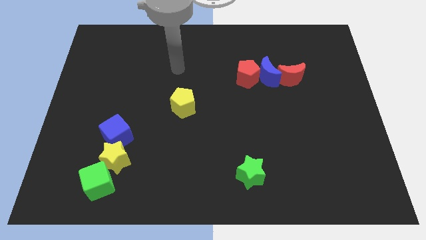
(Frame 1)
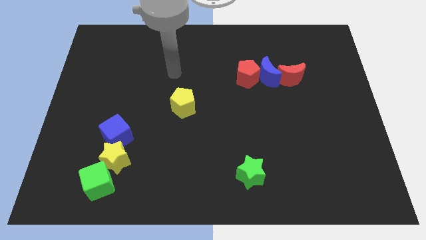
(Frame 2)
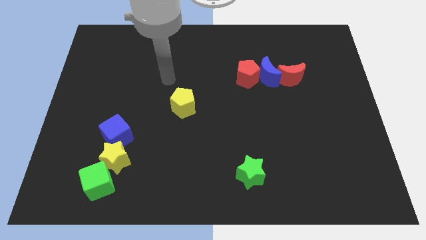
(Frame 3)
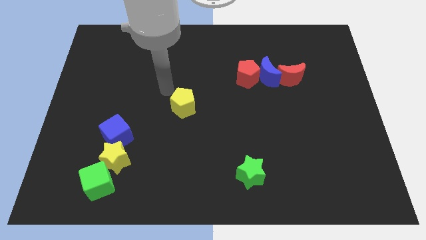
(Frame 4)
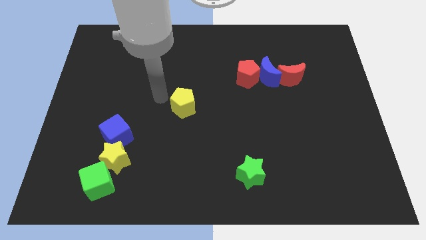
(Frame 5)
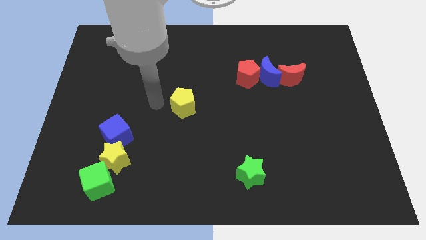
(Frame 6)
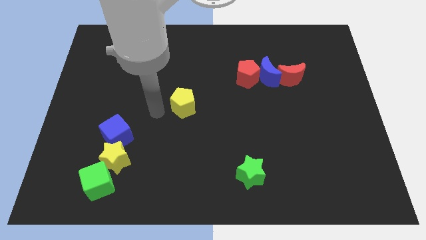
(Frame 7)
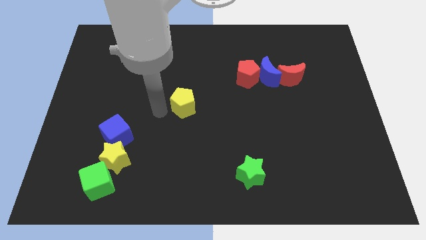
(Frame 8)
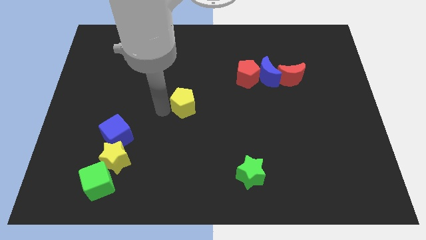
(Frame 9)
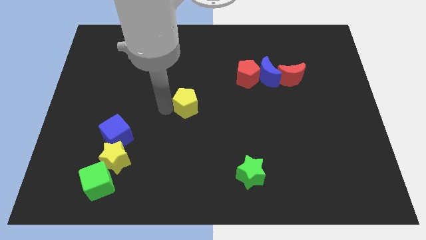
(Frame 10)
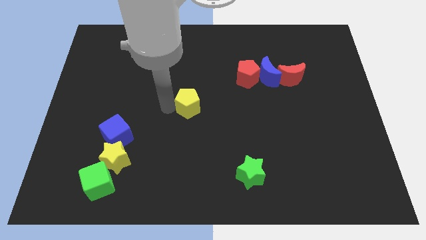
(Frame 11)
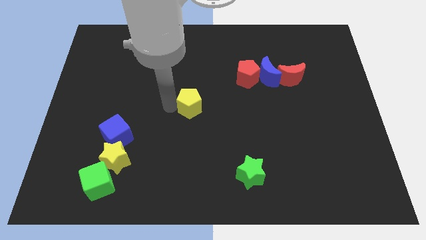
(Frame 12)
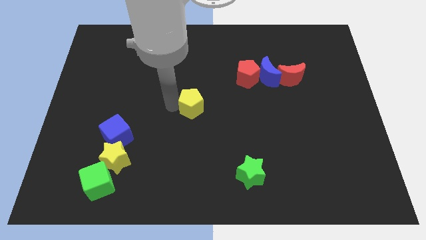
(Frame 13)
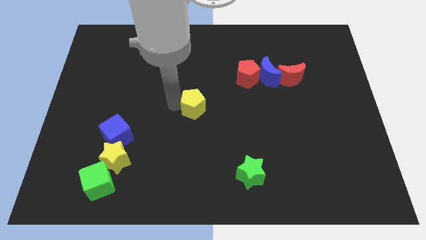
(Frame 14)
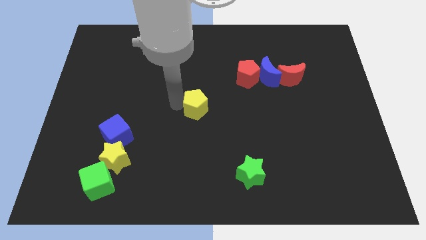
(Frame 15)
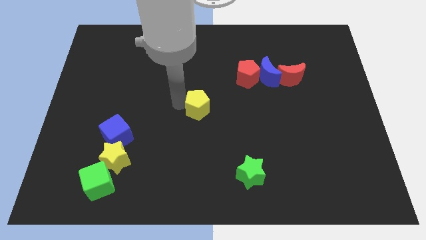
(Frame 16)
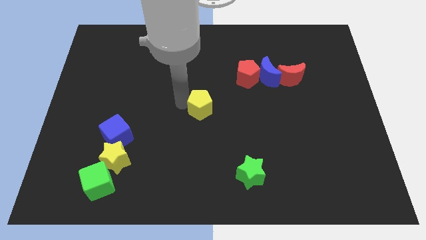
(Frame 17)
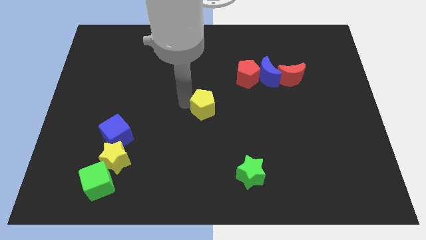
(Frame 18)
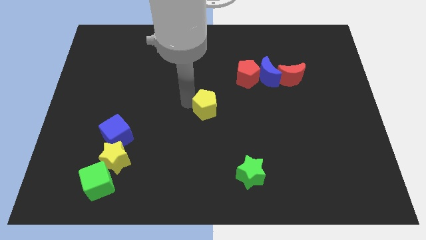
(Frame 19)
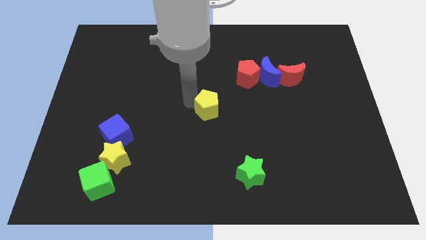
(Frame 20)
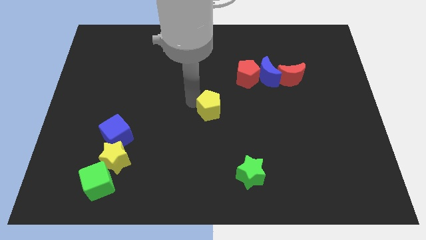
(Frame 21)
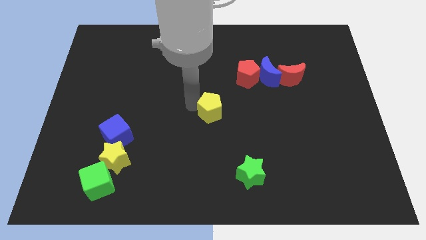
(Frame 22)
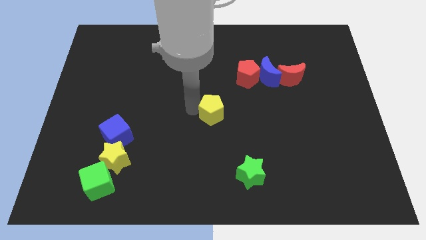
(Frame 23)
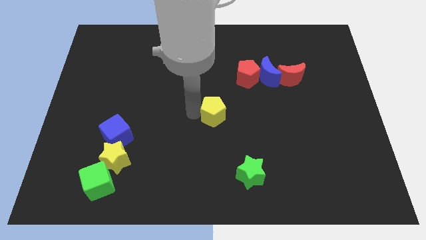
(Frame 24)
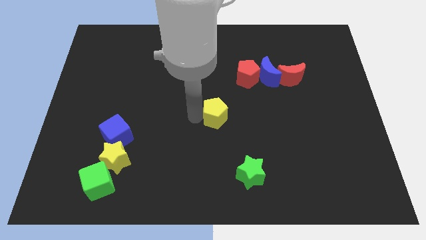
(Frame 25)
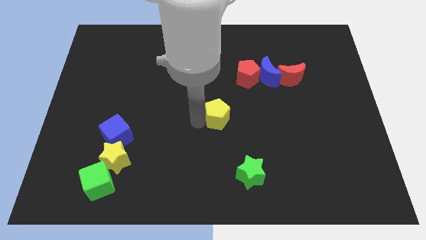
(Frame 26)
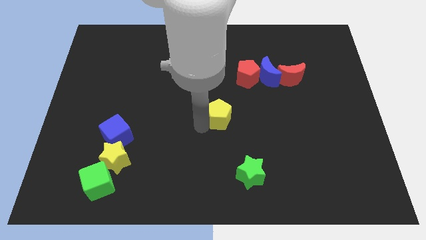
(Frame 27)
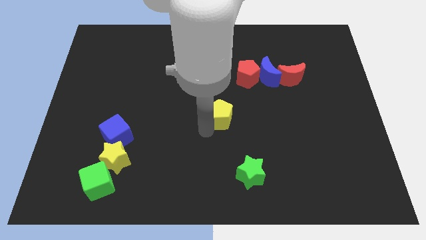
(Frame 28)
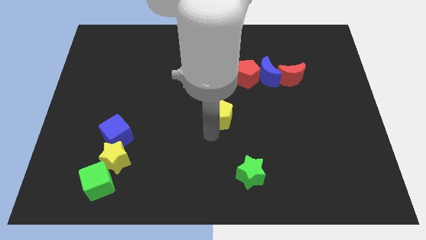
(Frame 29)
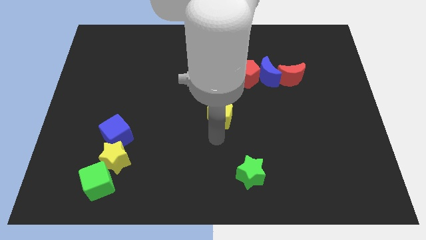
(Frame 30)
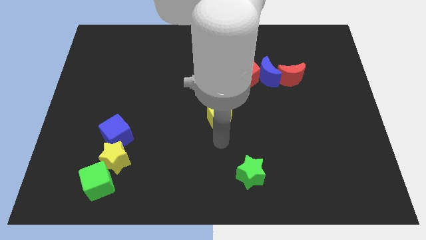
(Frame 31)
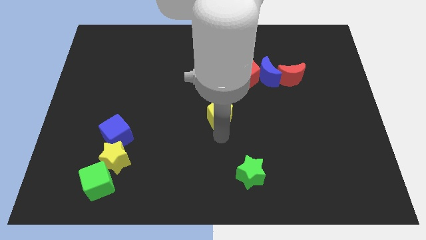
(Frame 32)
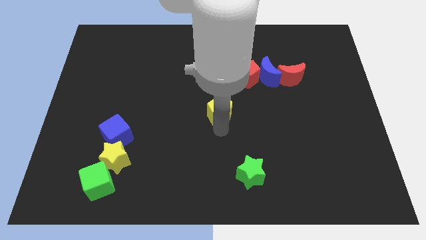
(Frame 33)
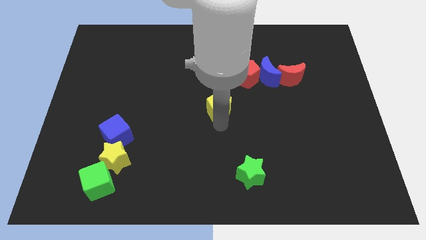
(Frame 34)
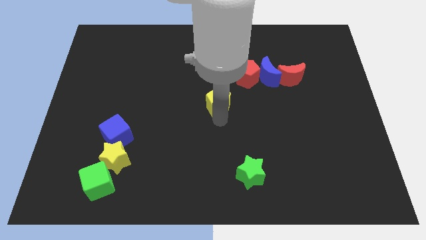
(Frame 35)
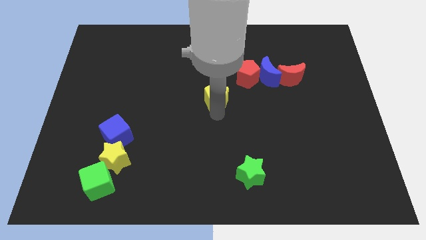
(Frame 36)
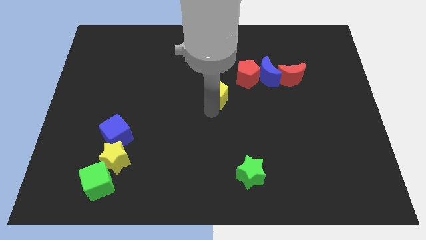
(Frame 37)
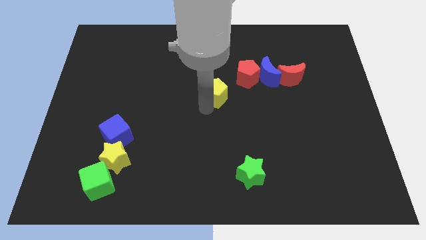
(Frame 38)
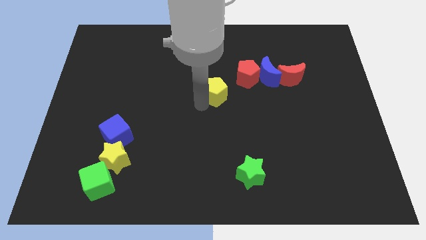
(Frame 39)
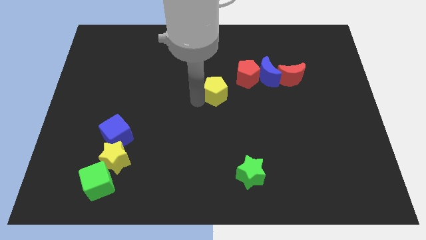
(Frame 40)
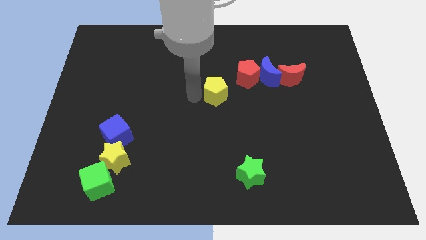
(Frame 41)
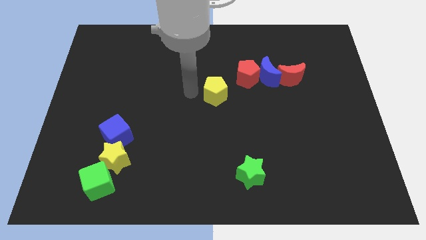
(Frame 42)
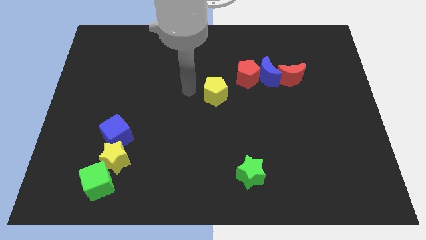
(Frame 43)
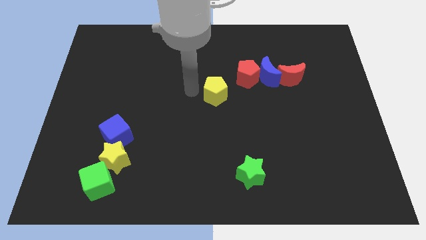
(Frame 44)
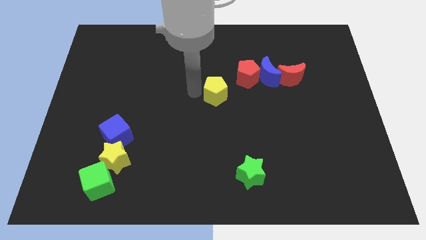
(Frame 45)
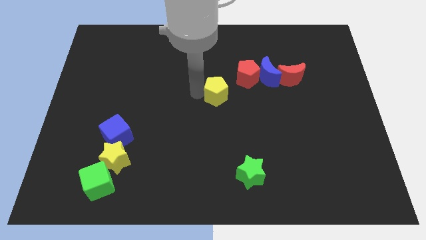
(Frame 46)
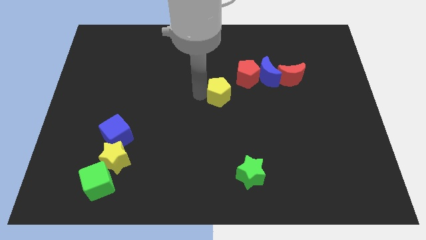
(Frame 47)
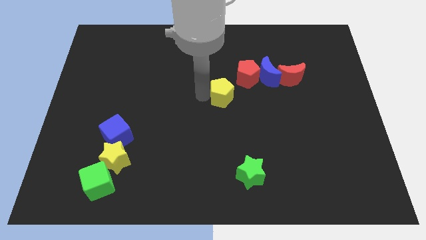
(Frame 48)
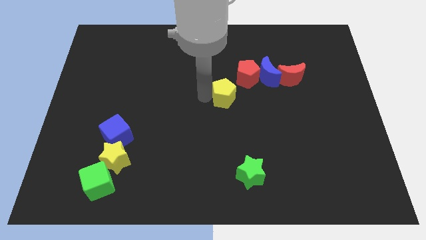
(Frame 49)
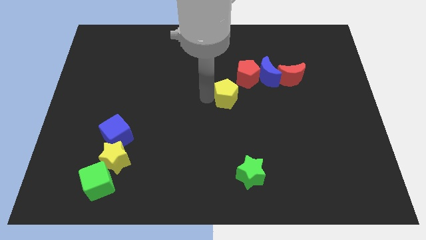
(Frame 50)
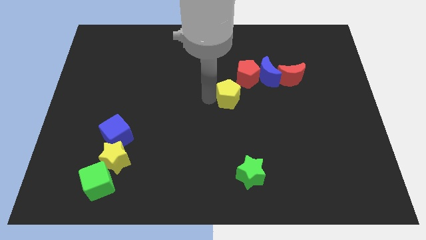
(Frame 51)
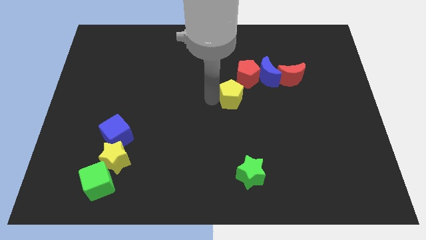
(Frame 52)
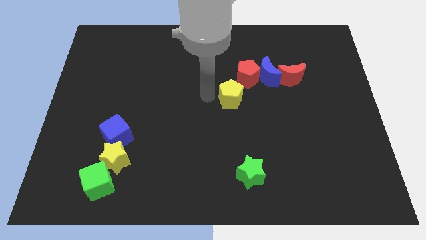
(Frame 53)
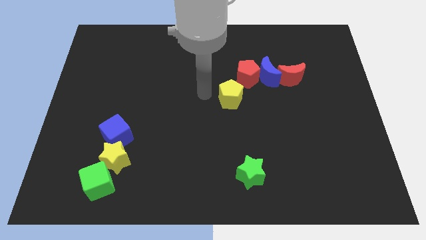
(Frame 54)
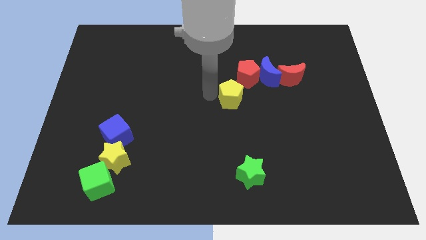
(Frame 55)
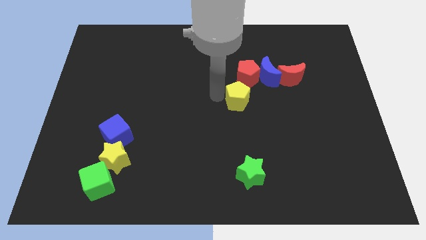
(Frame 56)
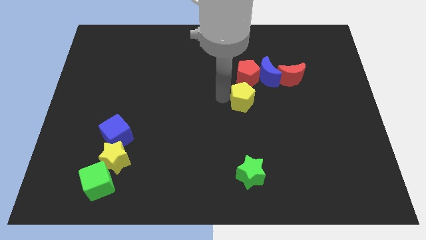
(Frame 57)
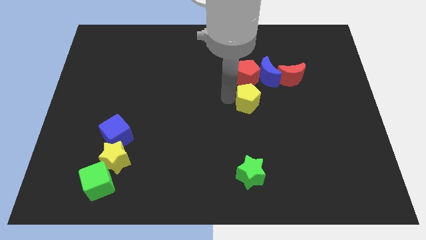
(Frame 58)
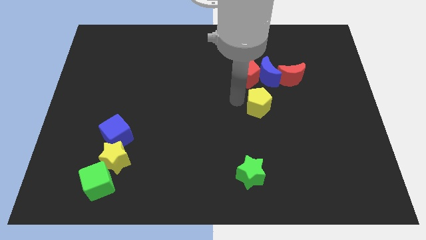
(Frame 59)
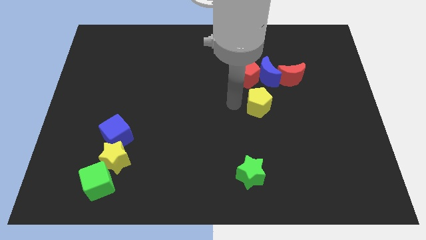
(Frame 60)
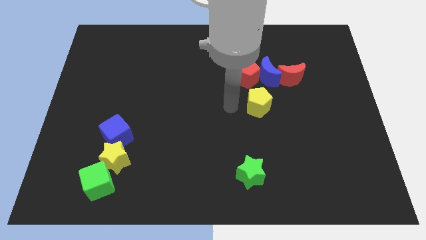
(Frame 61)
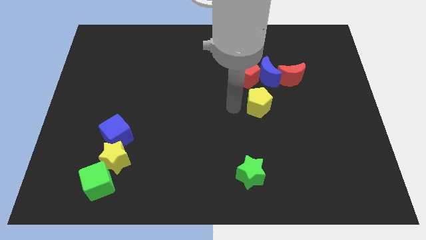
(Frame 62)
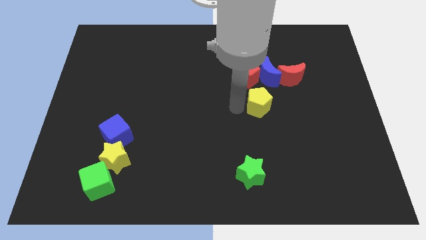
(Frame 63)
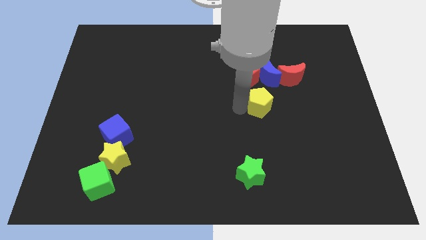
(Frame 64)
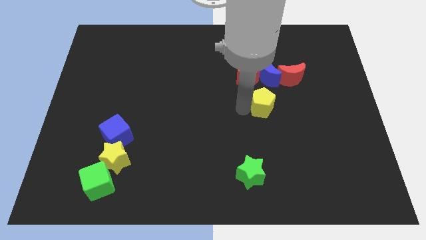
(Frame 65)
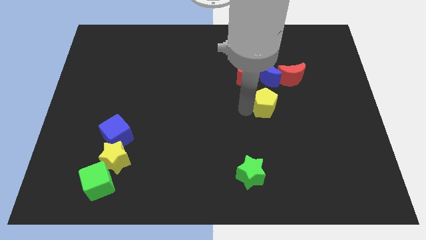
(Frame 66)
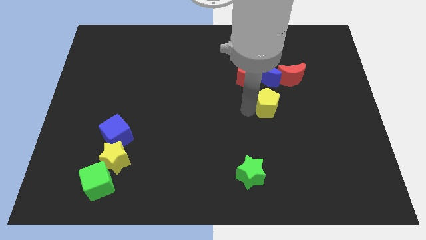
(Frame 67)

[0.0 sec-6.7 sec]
slide the yellow pentagon to the right

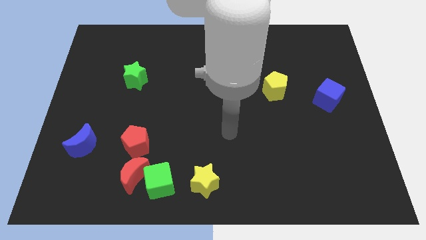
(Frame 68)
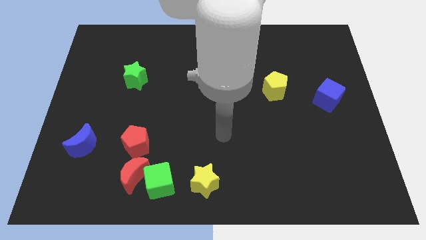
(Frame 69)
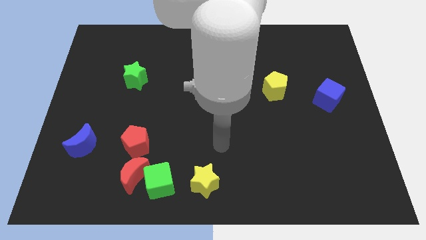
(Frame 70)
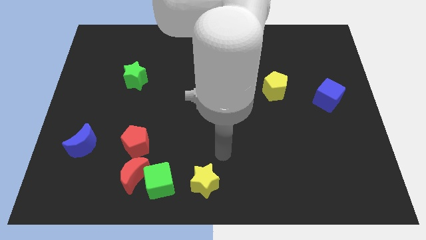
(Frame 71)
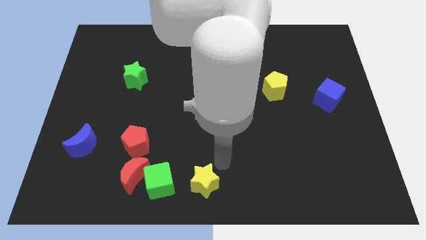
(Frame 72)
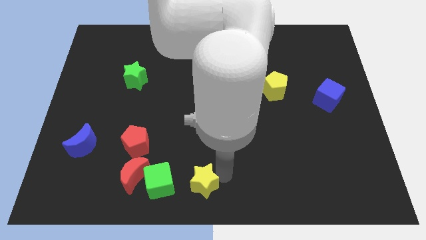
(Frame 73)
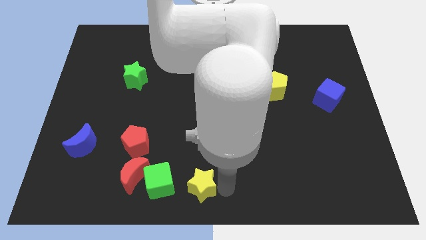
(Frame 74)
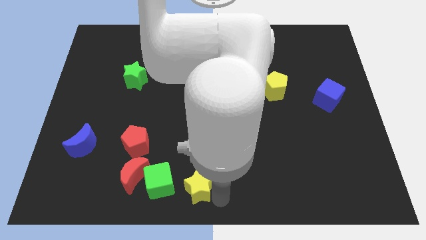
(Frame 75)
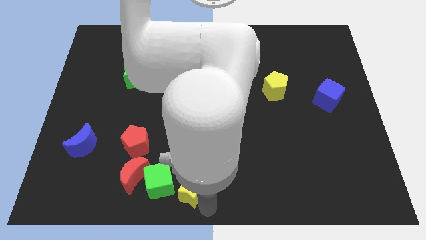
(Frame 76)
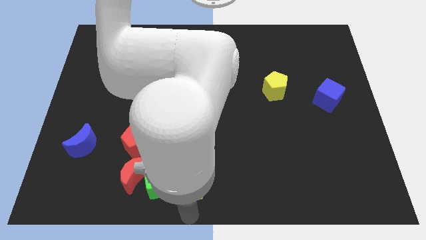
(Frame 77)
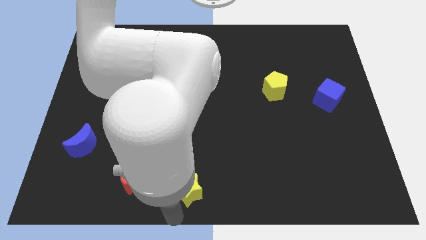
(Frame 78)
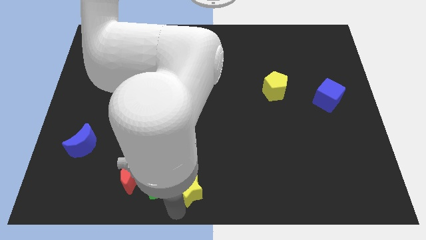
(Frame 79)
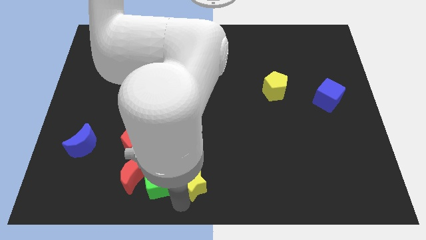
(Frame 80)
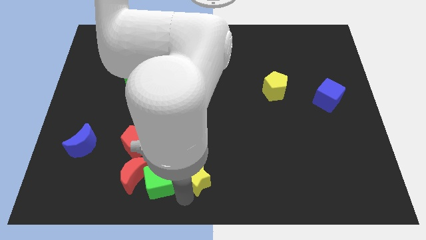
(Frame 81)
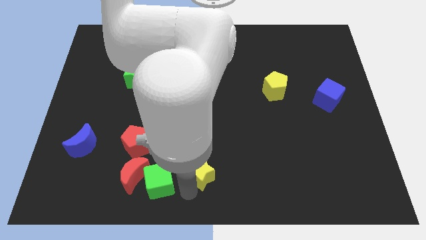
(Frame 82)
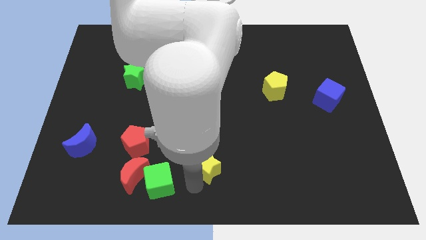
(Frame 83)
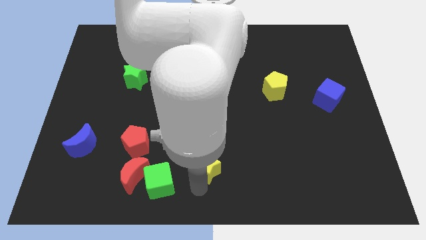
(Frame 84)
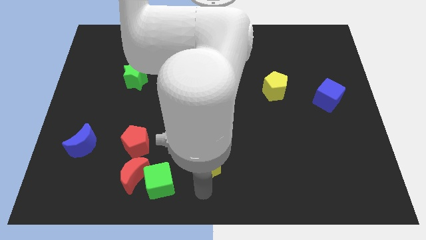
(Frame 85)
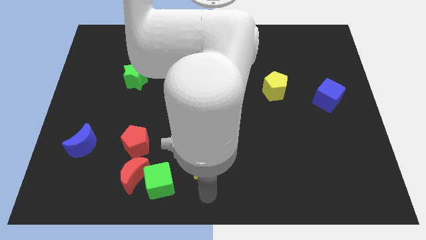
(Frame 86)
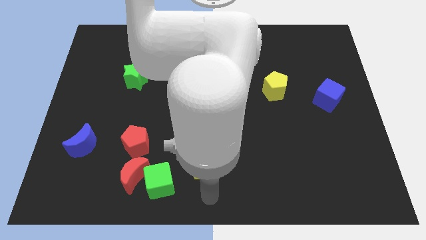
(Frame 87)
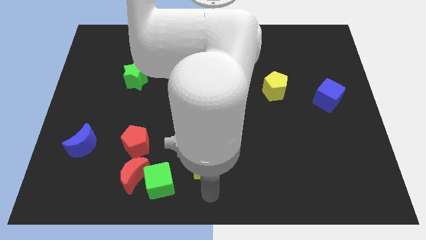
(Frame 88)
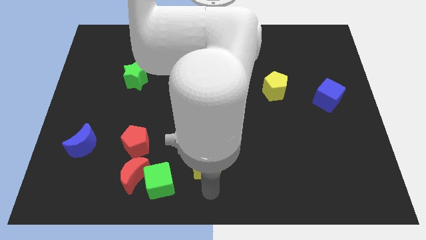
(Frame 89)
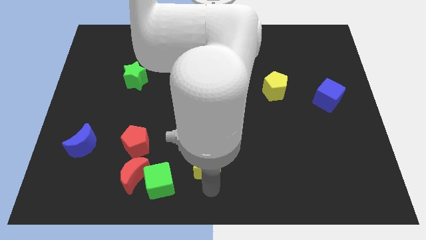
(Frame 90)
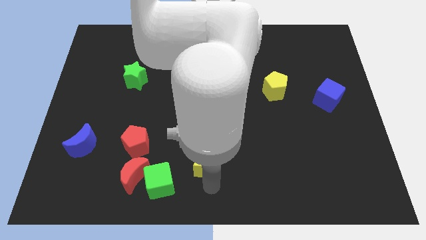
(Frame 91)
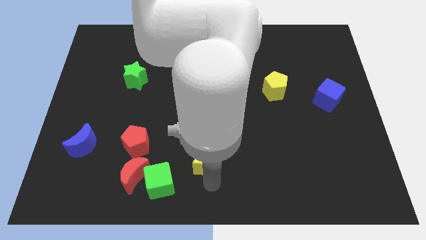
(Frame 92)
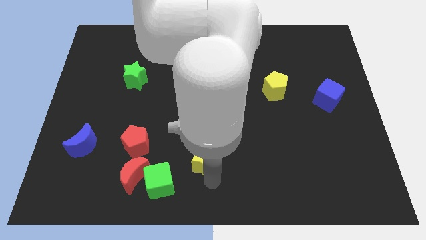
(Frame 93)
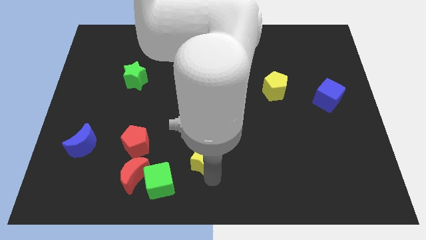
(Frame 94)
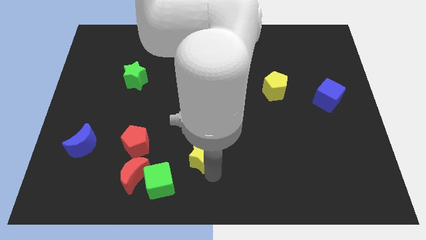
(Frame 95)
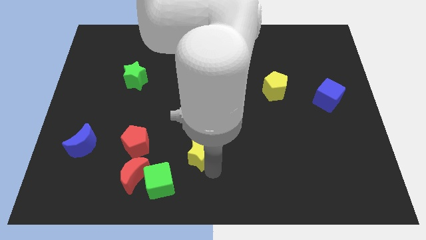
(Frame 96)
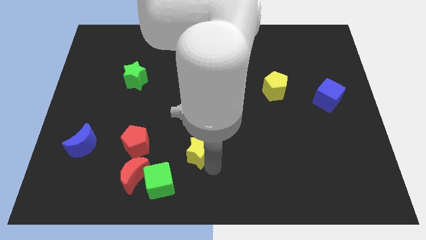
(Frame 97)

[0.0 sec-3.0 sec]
push the yellow star a little bit upwards
